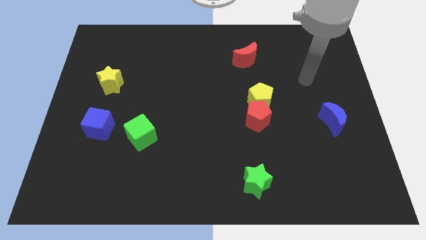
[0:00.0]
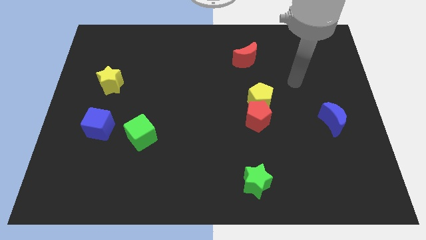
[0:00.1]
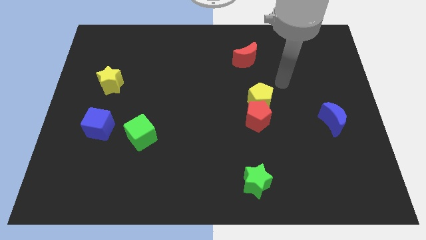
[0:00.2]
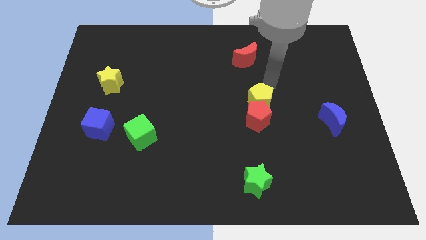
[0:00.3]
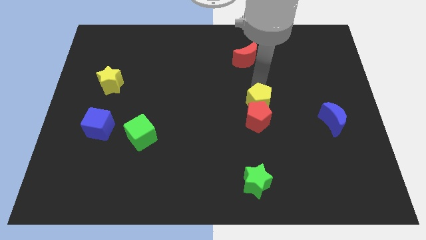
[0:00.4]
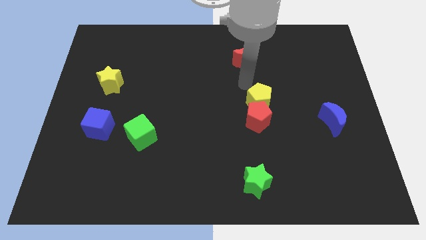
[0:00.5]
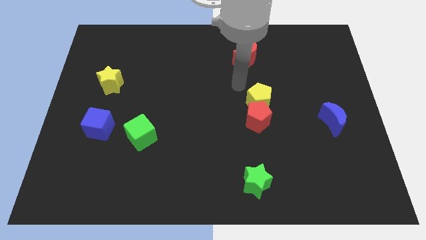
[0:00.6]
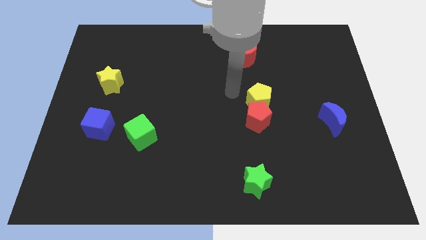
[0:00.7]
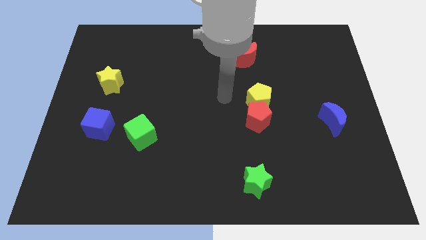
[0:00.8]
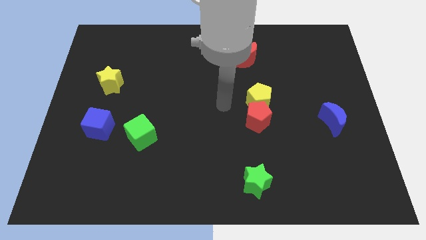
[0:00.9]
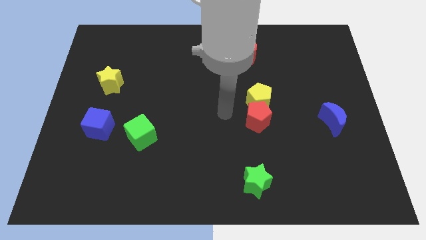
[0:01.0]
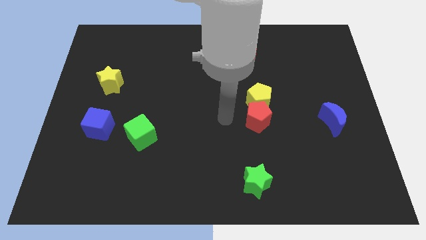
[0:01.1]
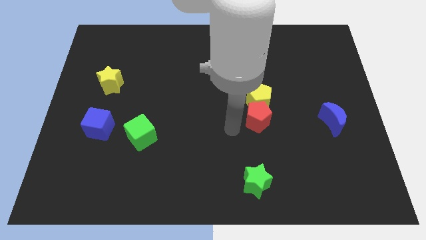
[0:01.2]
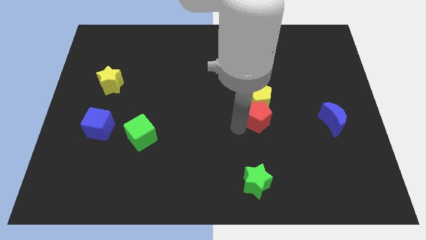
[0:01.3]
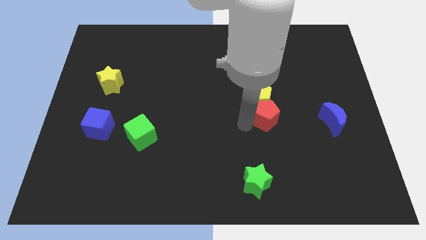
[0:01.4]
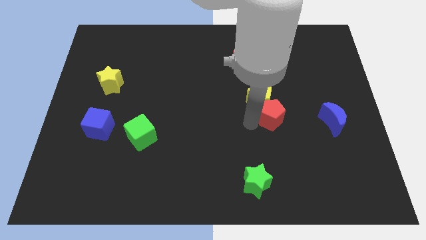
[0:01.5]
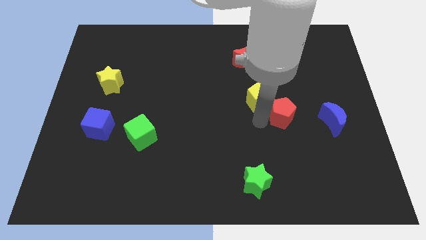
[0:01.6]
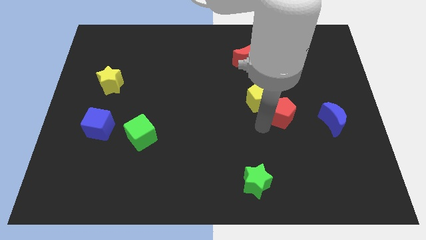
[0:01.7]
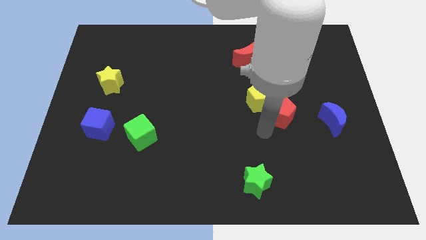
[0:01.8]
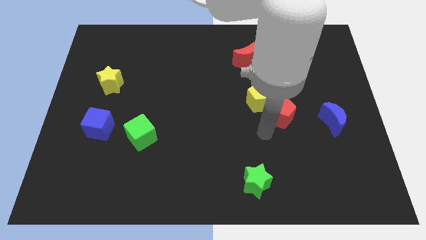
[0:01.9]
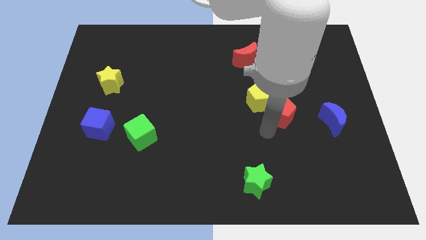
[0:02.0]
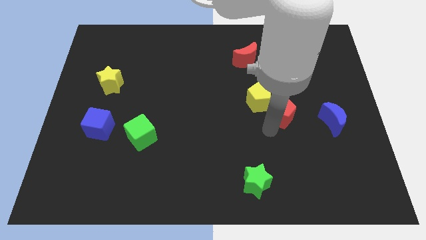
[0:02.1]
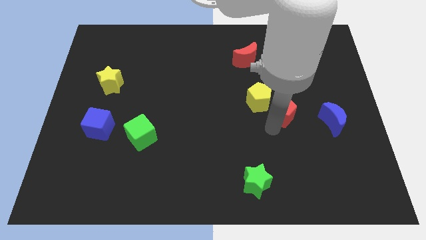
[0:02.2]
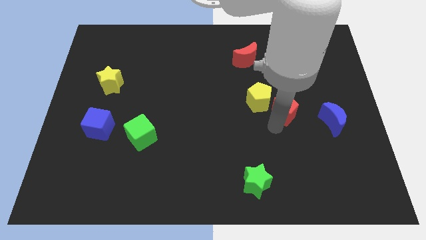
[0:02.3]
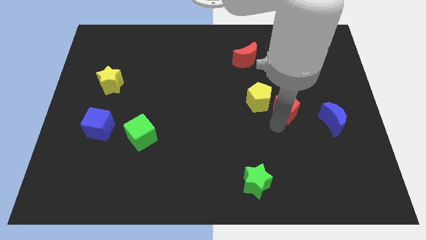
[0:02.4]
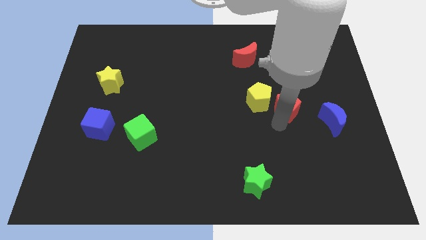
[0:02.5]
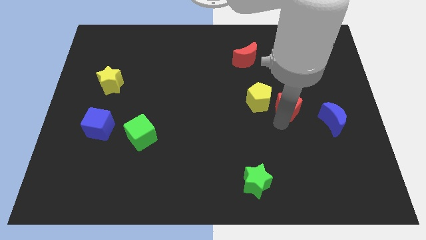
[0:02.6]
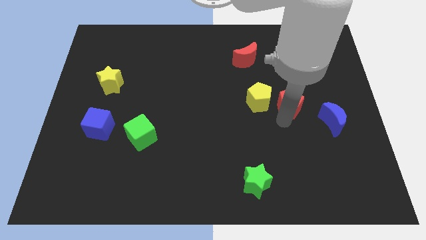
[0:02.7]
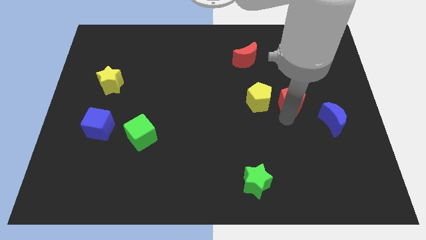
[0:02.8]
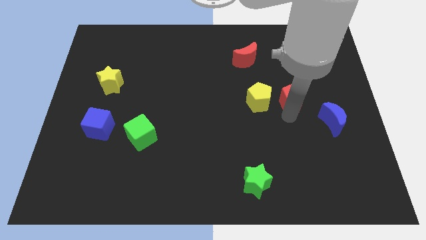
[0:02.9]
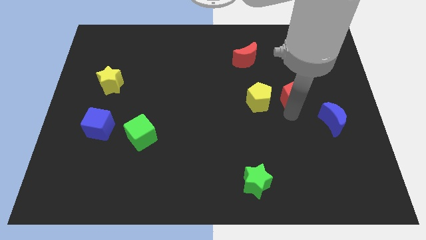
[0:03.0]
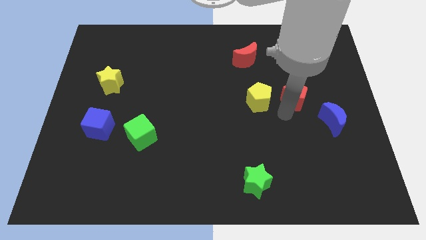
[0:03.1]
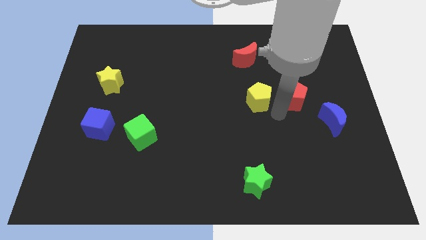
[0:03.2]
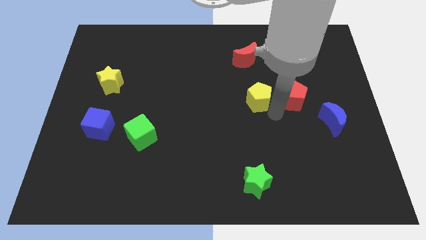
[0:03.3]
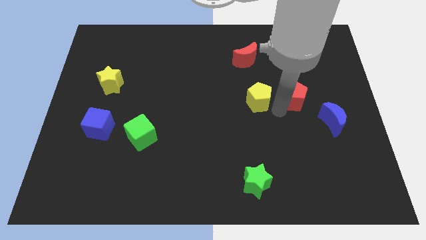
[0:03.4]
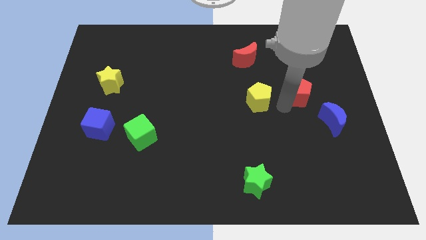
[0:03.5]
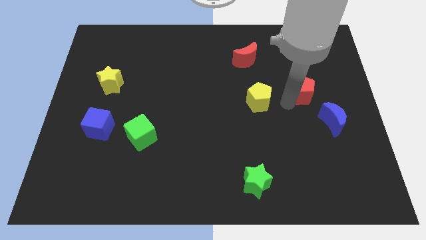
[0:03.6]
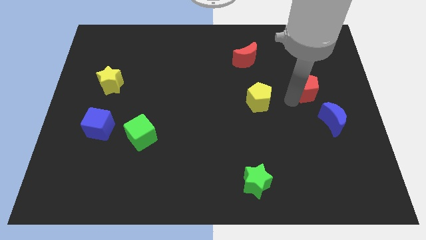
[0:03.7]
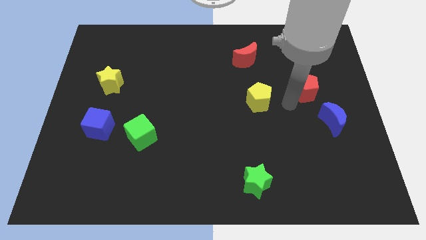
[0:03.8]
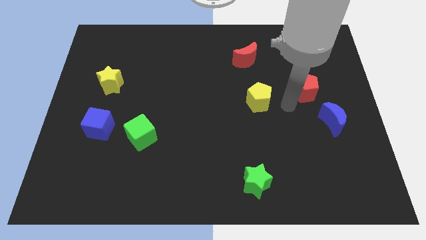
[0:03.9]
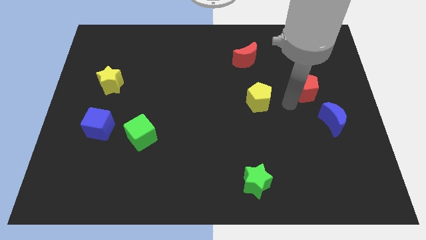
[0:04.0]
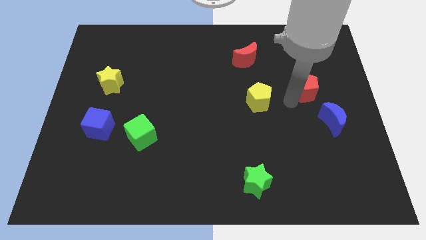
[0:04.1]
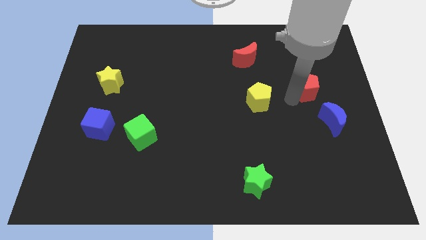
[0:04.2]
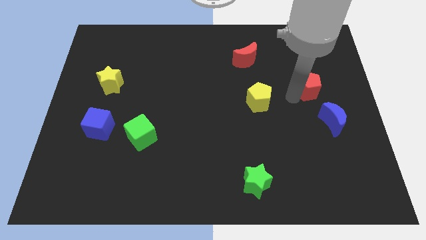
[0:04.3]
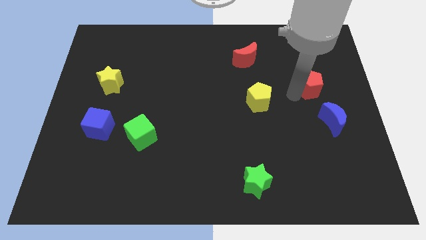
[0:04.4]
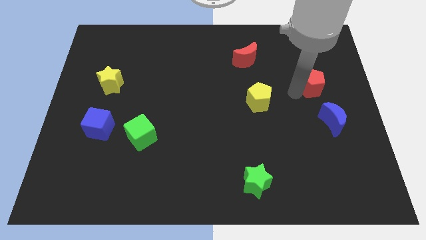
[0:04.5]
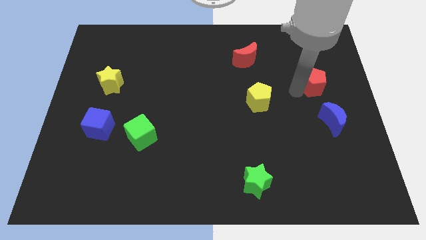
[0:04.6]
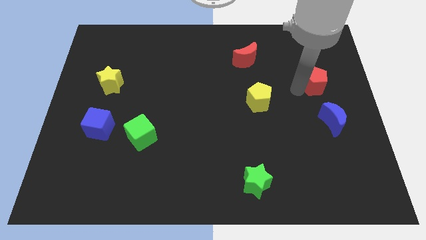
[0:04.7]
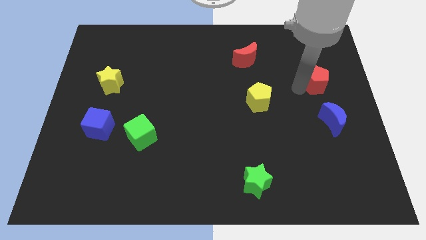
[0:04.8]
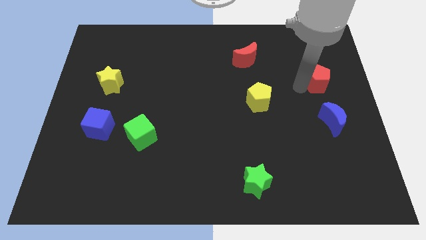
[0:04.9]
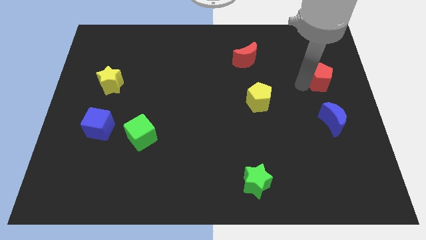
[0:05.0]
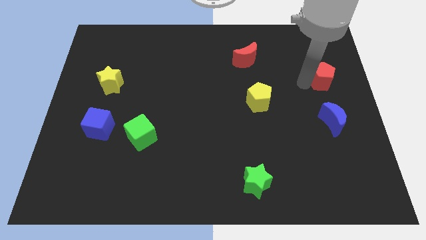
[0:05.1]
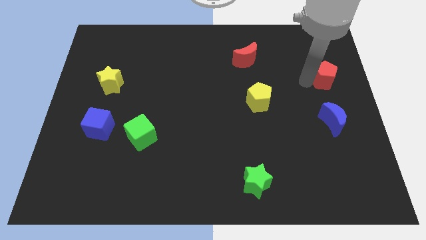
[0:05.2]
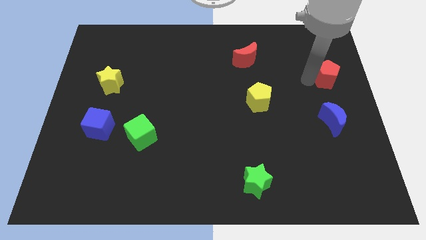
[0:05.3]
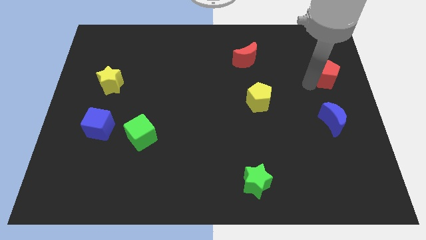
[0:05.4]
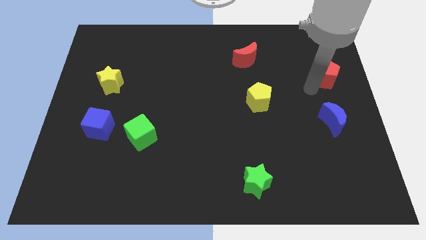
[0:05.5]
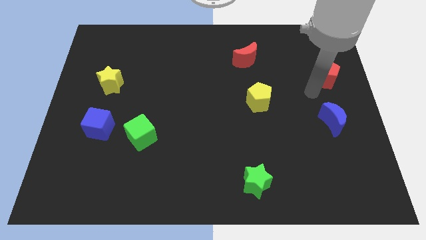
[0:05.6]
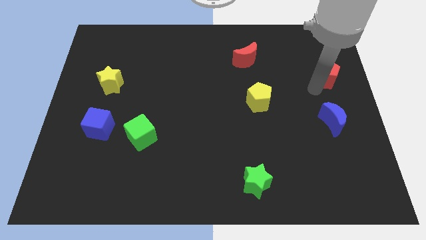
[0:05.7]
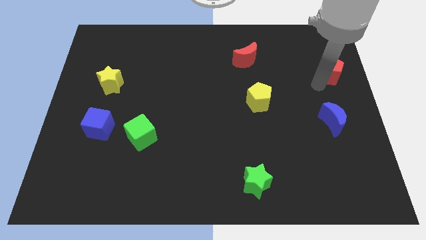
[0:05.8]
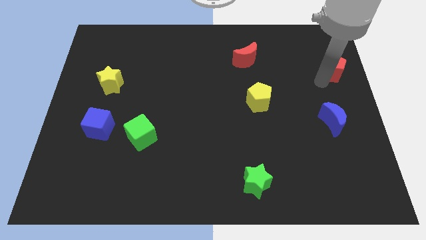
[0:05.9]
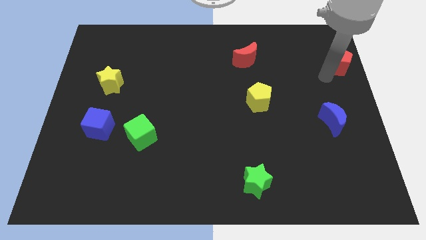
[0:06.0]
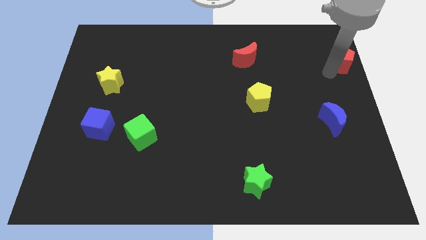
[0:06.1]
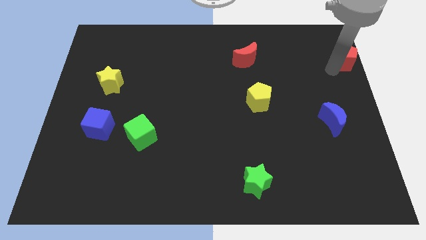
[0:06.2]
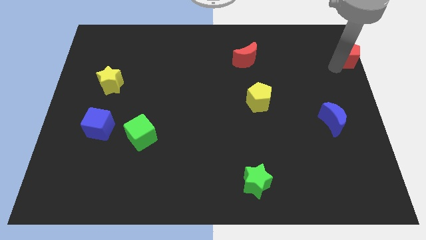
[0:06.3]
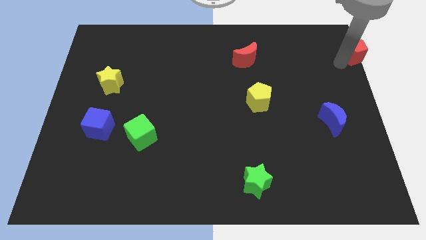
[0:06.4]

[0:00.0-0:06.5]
slide the red pentagon to the upper right corner
